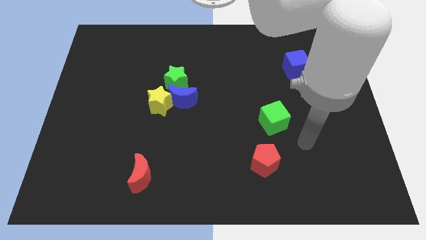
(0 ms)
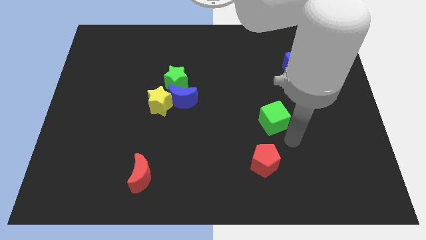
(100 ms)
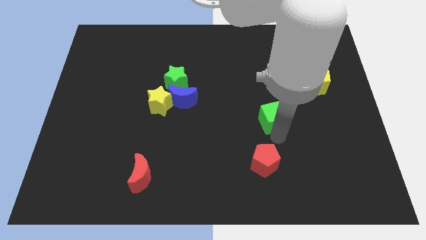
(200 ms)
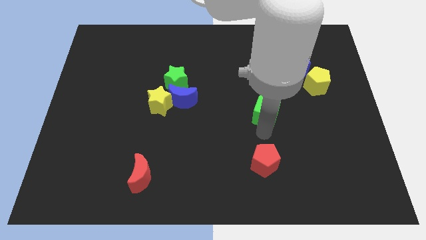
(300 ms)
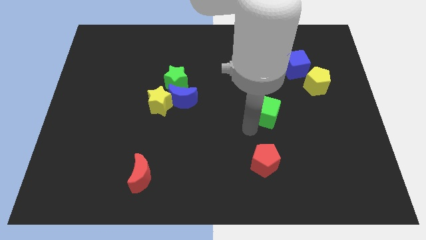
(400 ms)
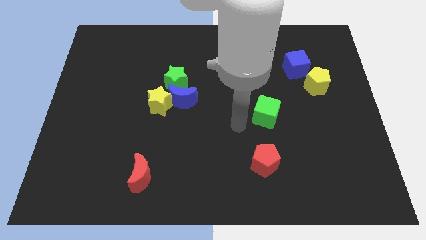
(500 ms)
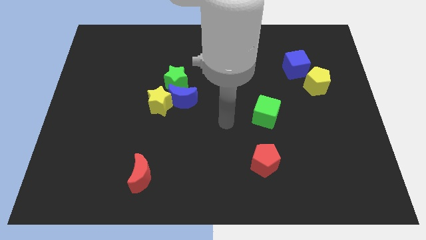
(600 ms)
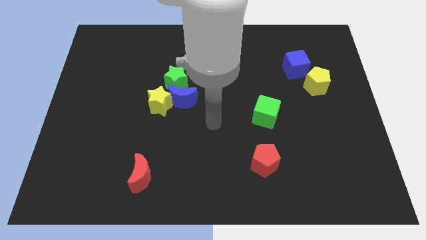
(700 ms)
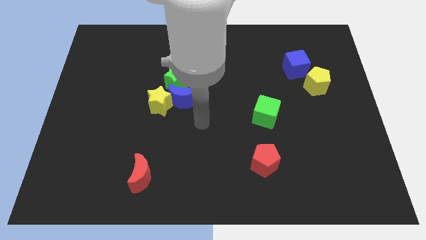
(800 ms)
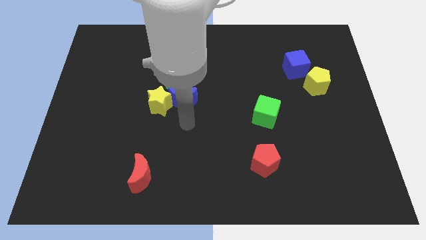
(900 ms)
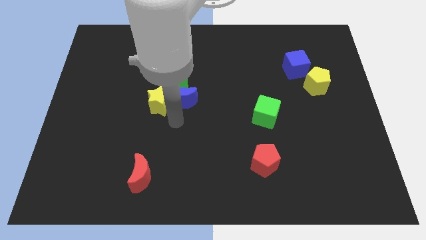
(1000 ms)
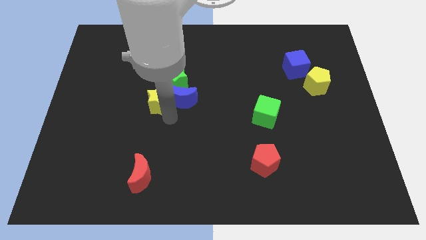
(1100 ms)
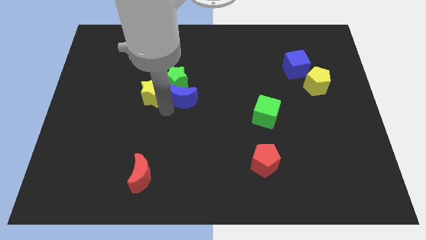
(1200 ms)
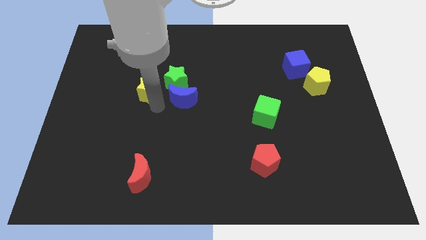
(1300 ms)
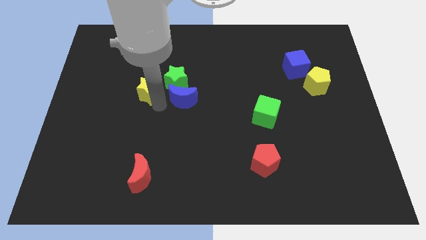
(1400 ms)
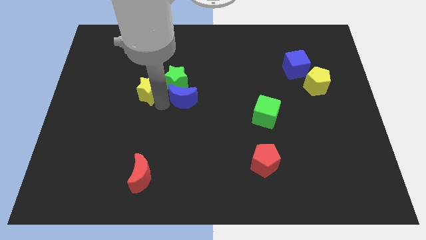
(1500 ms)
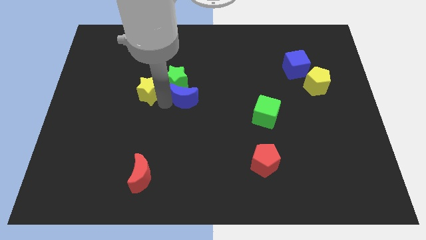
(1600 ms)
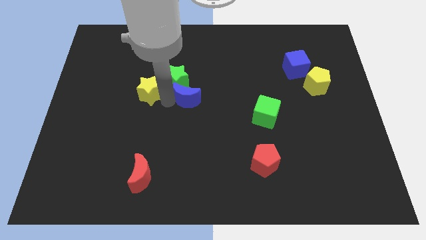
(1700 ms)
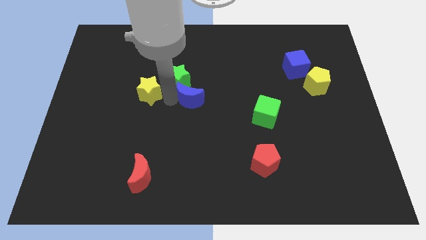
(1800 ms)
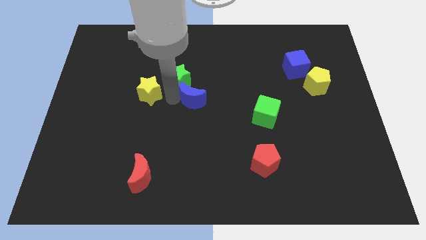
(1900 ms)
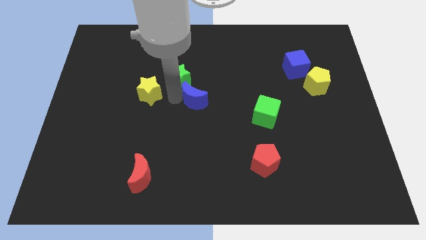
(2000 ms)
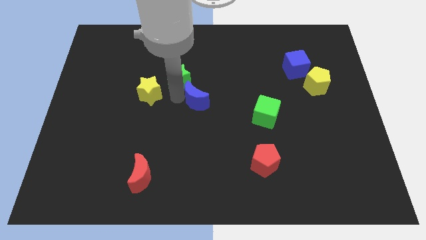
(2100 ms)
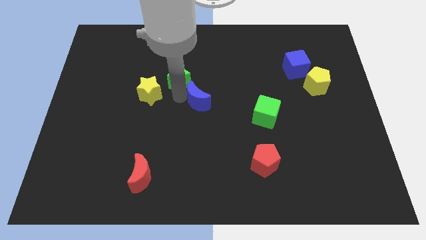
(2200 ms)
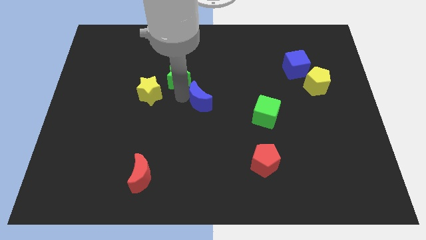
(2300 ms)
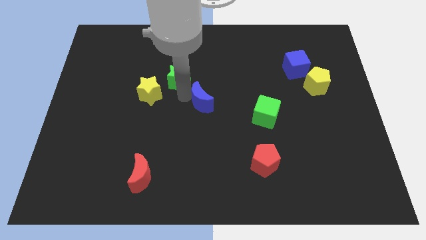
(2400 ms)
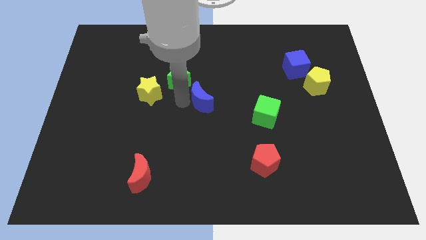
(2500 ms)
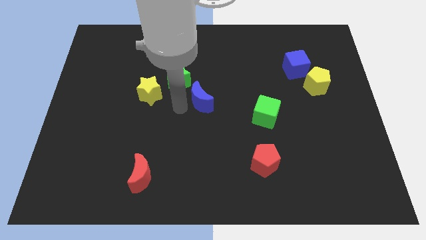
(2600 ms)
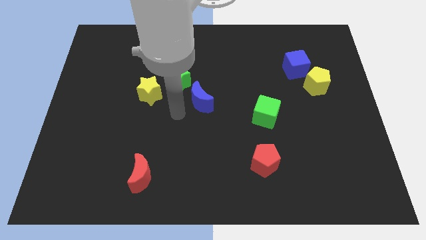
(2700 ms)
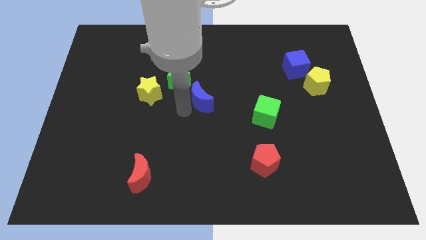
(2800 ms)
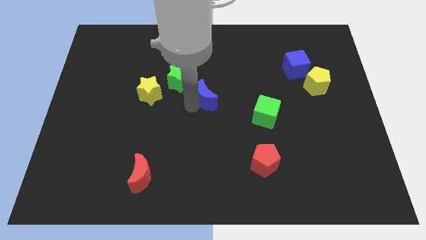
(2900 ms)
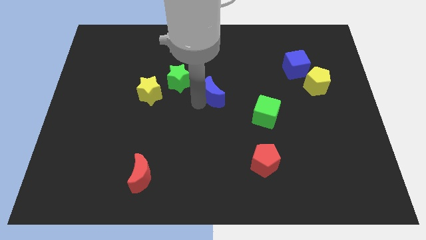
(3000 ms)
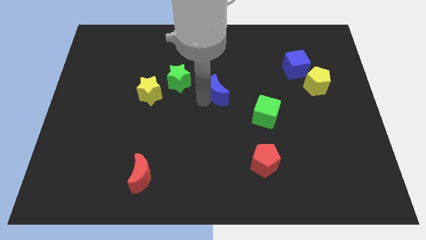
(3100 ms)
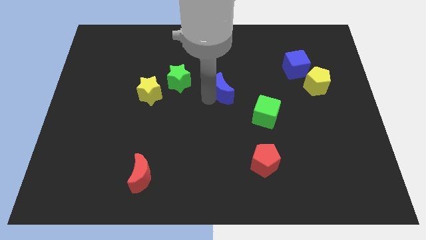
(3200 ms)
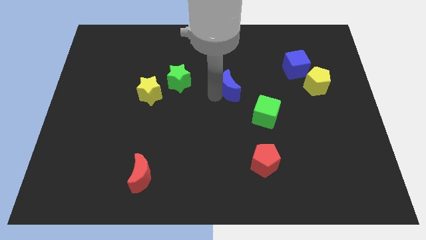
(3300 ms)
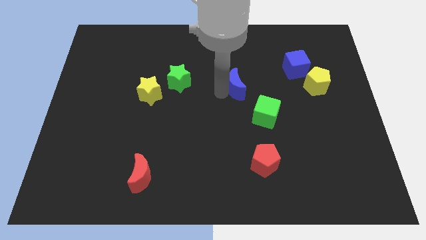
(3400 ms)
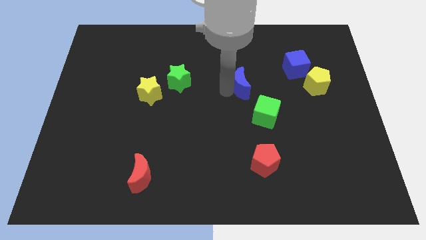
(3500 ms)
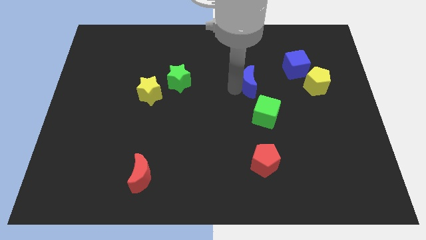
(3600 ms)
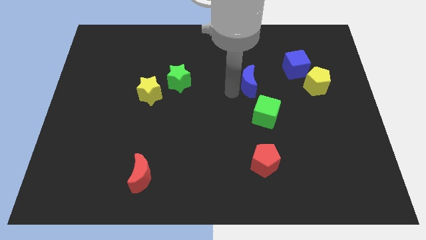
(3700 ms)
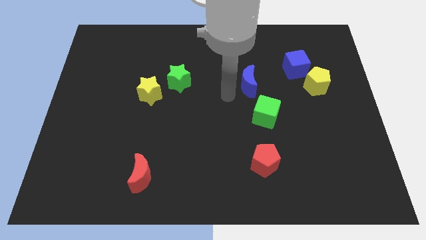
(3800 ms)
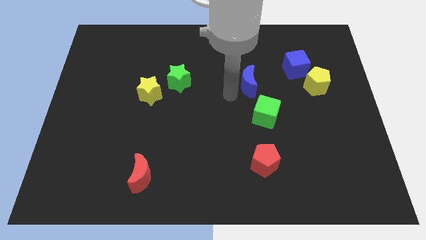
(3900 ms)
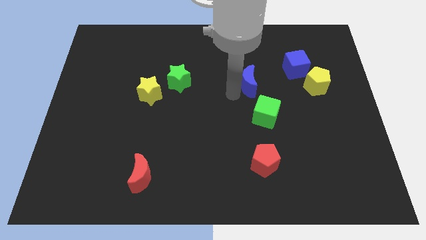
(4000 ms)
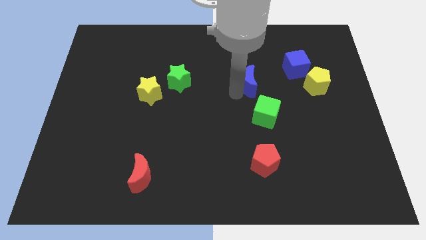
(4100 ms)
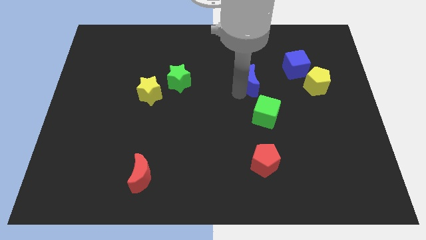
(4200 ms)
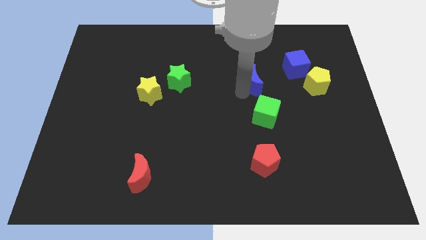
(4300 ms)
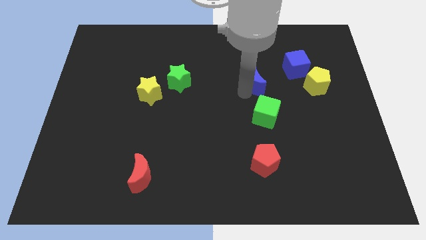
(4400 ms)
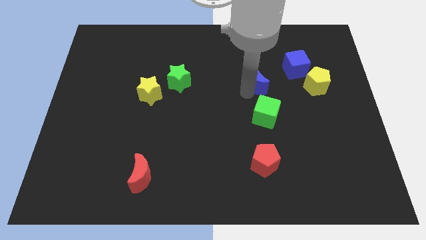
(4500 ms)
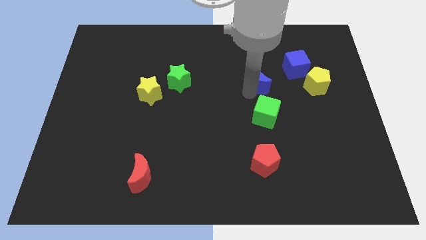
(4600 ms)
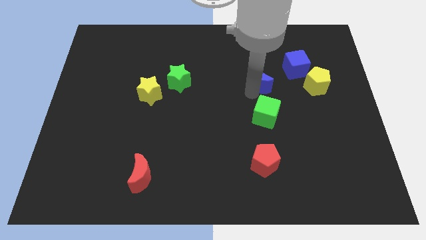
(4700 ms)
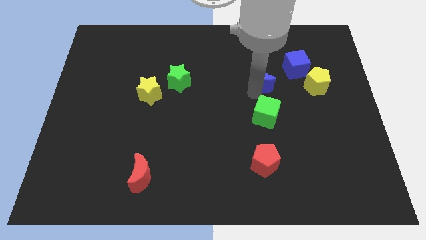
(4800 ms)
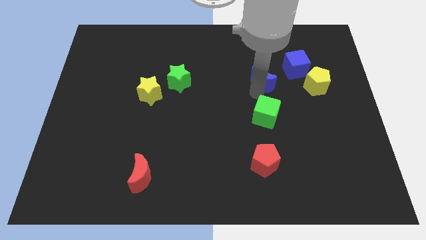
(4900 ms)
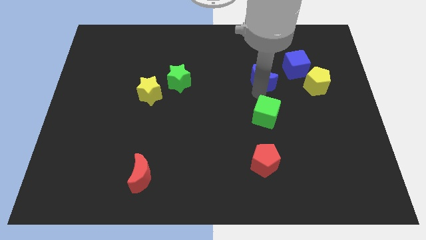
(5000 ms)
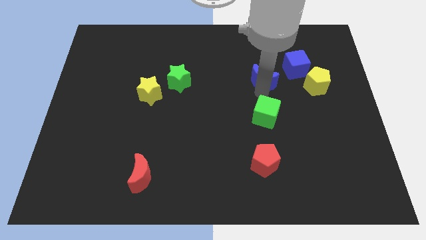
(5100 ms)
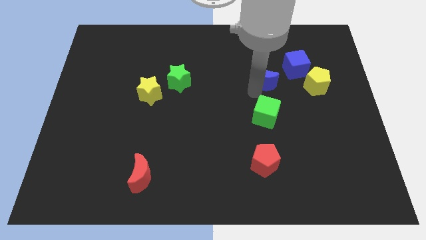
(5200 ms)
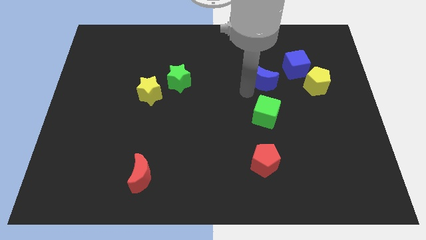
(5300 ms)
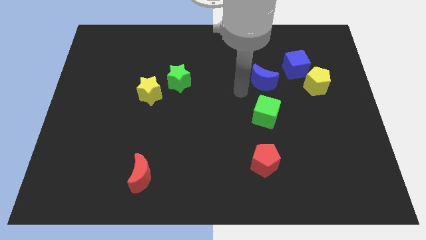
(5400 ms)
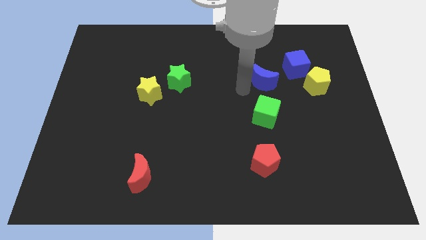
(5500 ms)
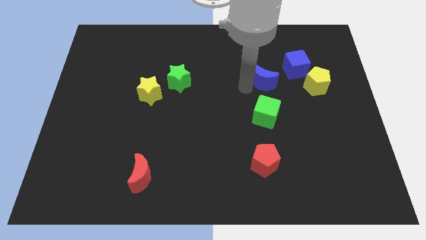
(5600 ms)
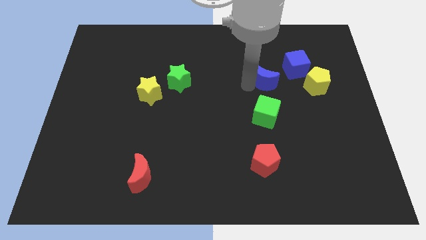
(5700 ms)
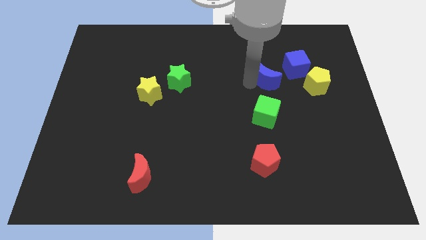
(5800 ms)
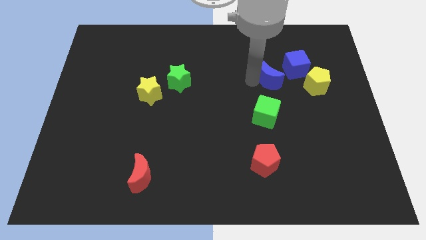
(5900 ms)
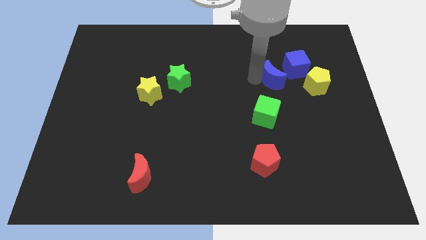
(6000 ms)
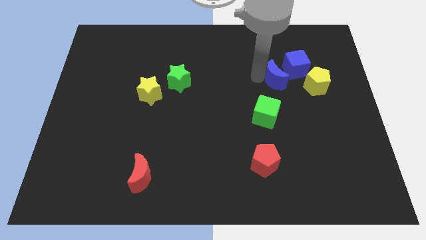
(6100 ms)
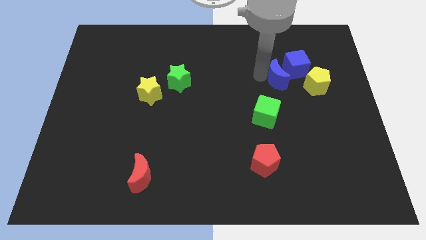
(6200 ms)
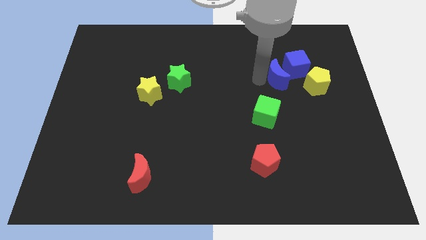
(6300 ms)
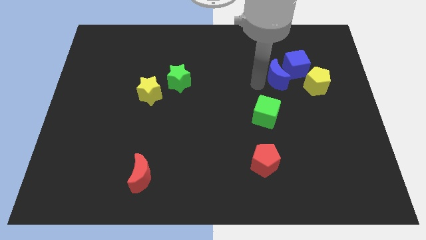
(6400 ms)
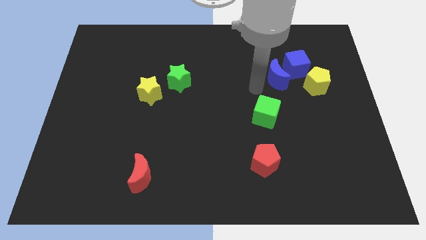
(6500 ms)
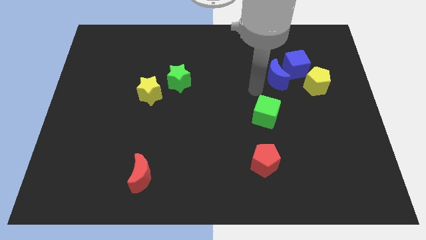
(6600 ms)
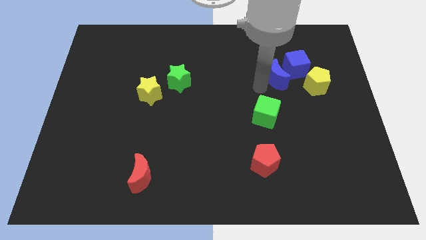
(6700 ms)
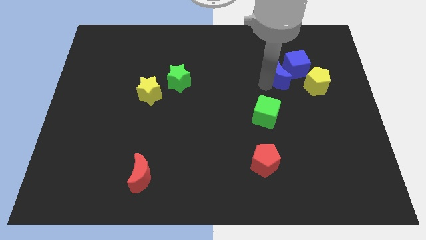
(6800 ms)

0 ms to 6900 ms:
move the blue moon to the blue cube
